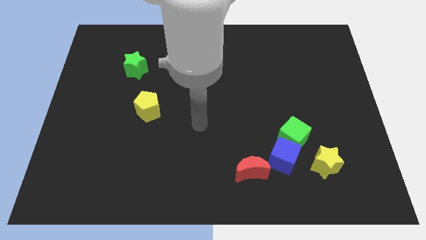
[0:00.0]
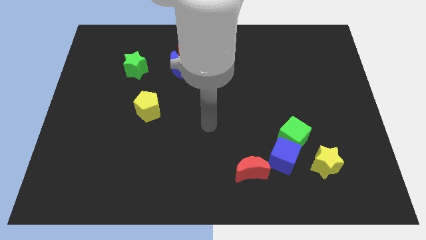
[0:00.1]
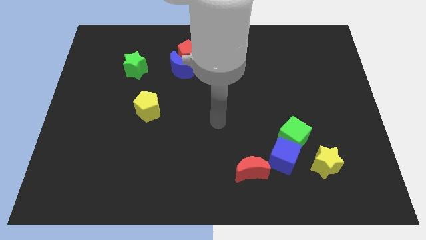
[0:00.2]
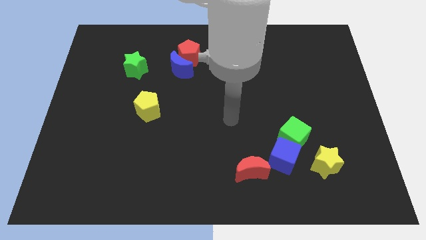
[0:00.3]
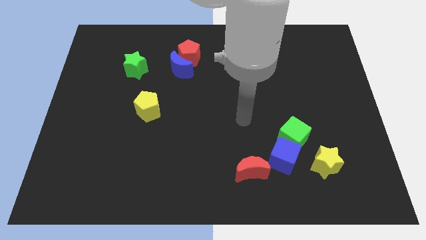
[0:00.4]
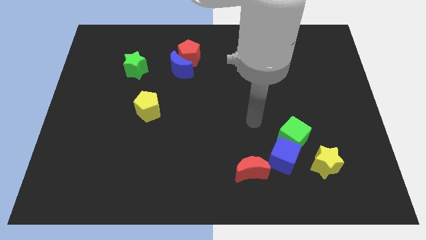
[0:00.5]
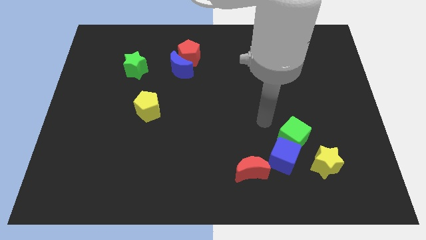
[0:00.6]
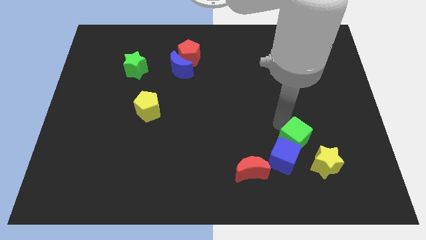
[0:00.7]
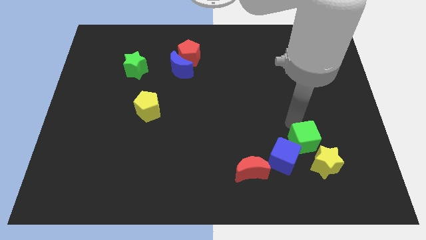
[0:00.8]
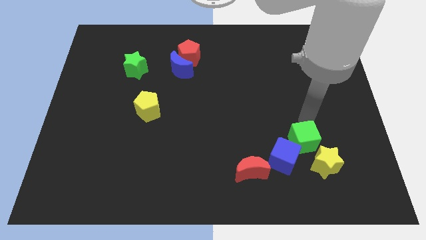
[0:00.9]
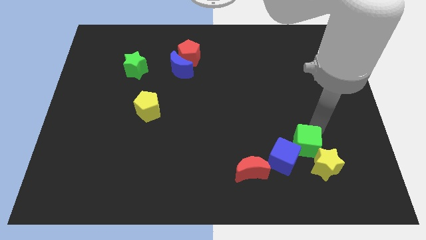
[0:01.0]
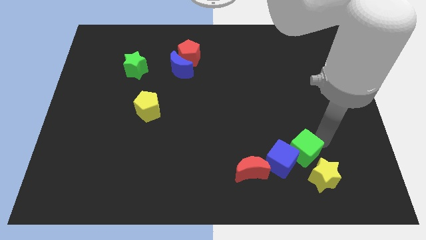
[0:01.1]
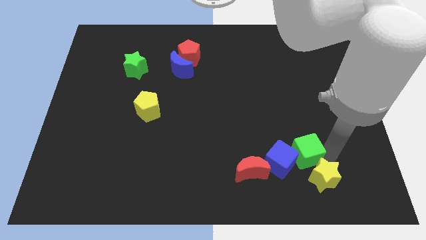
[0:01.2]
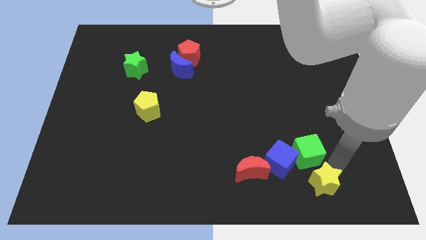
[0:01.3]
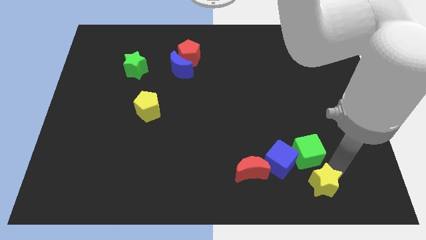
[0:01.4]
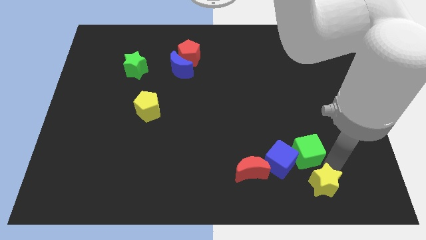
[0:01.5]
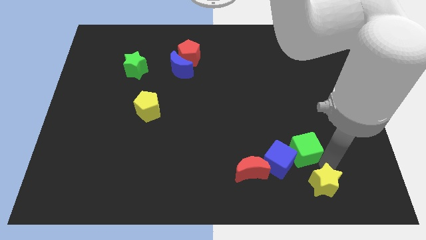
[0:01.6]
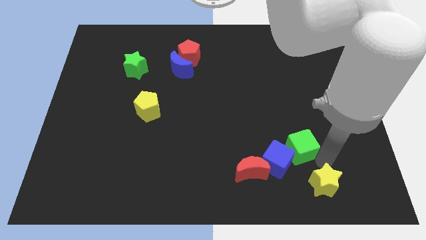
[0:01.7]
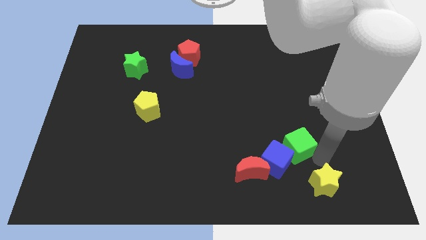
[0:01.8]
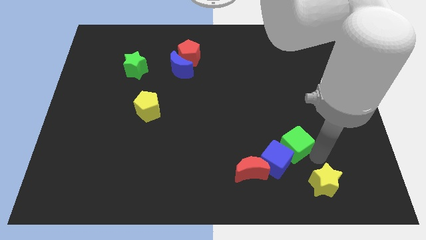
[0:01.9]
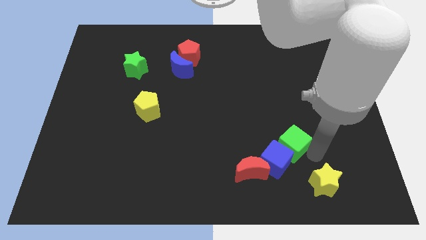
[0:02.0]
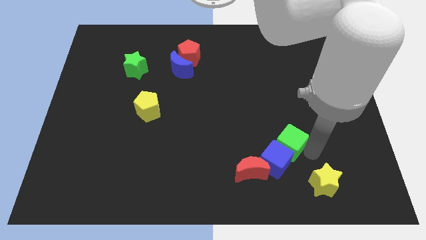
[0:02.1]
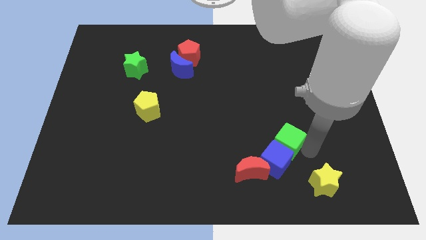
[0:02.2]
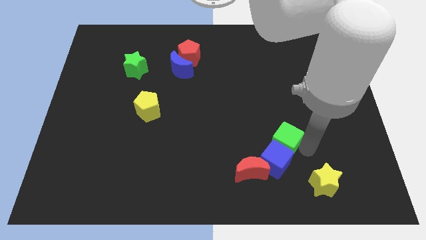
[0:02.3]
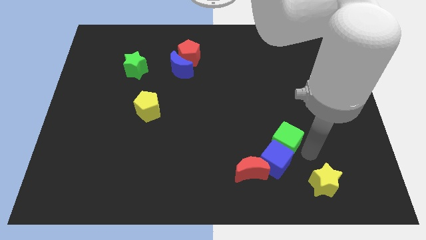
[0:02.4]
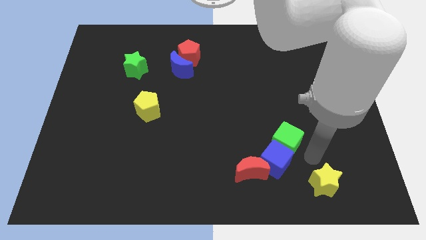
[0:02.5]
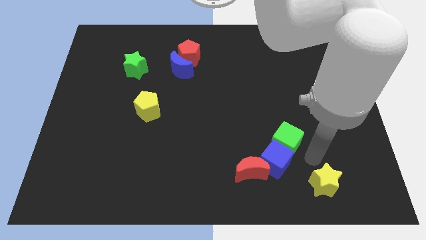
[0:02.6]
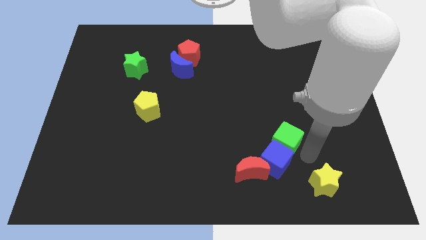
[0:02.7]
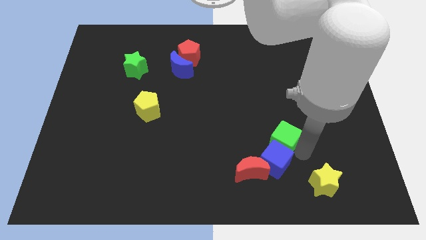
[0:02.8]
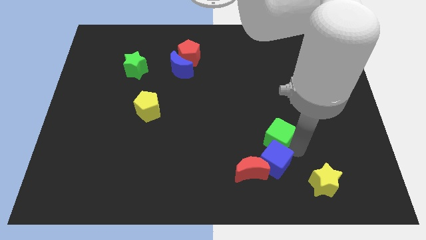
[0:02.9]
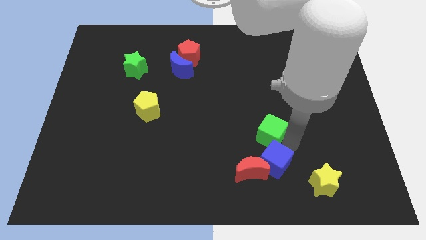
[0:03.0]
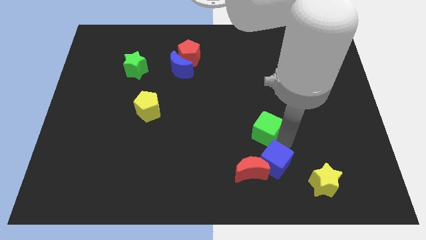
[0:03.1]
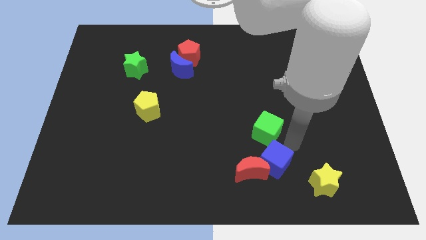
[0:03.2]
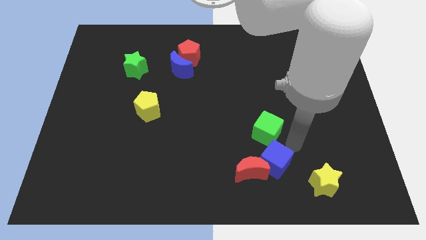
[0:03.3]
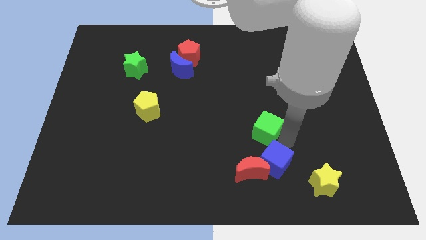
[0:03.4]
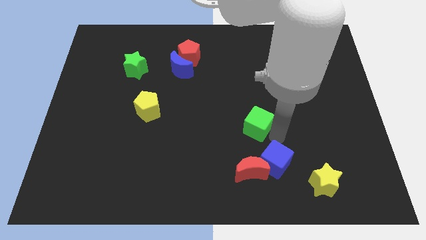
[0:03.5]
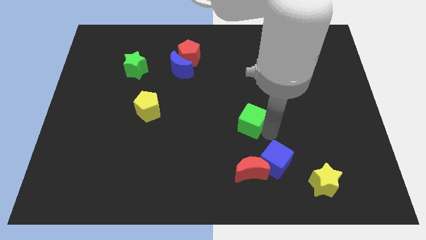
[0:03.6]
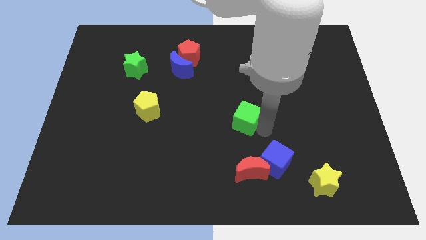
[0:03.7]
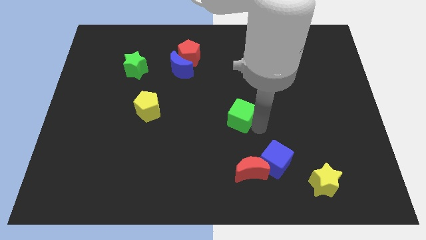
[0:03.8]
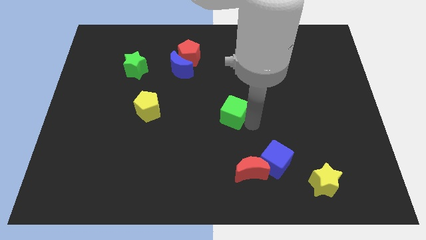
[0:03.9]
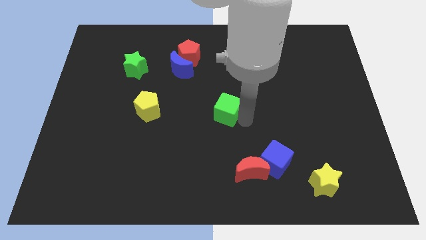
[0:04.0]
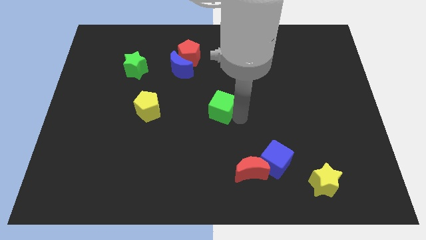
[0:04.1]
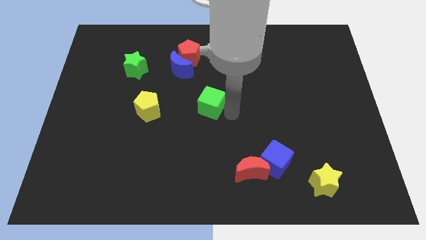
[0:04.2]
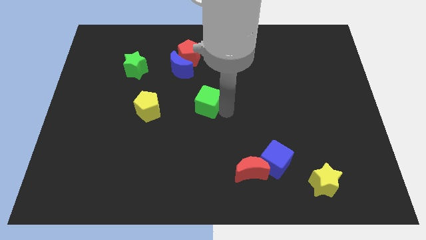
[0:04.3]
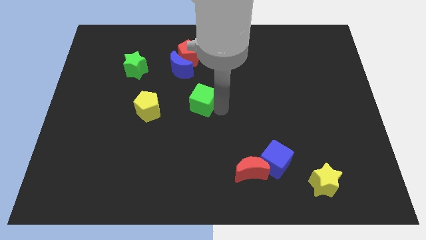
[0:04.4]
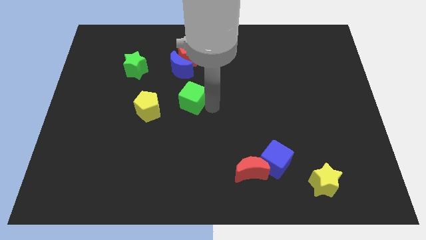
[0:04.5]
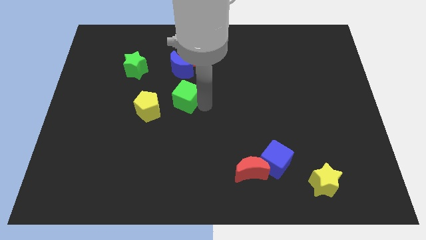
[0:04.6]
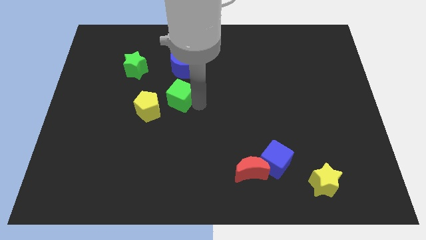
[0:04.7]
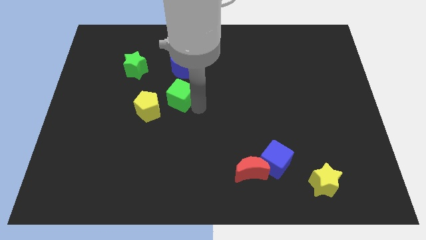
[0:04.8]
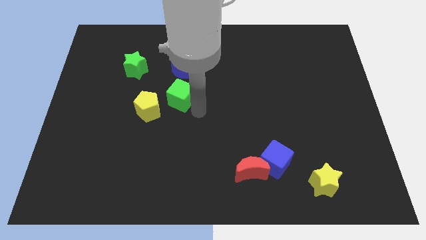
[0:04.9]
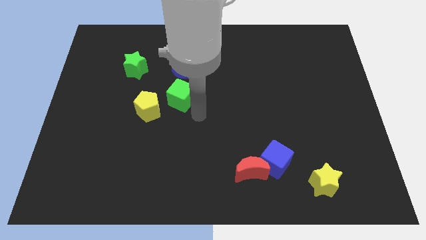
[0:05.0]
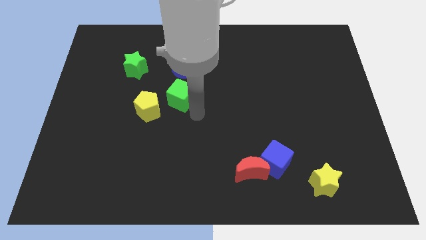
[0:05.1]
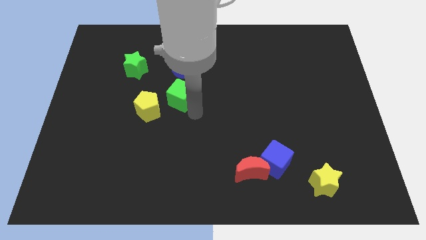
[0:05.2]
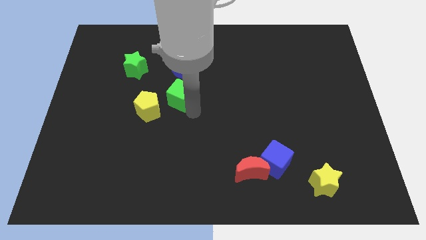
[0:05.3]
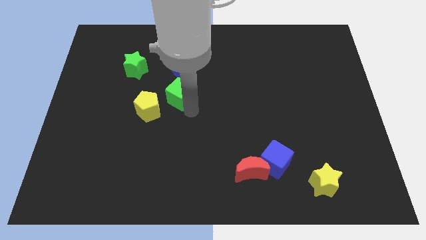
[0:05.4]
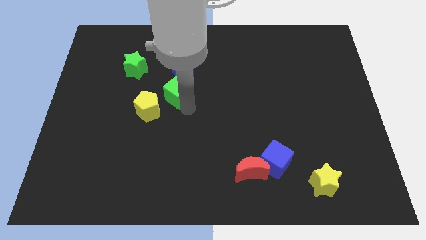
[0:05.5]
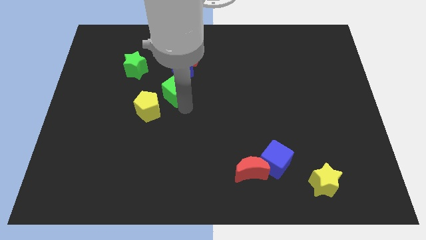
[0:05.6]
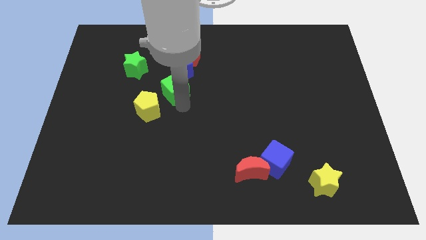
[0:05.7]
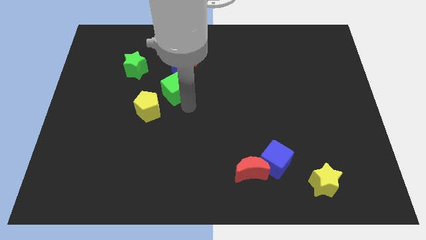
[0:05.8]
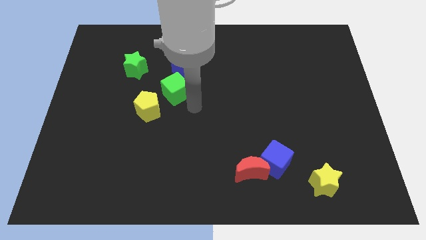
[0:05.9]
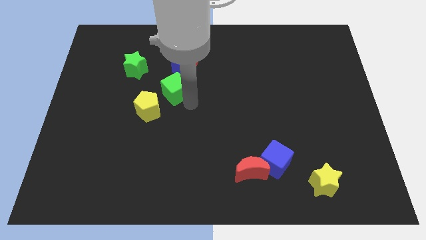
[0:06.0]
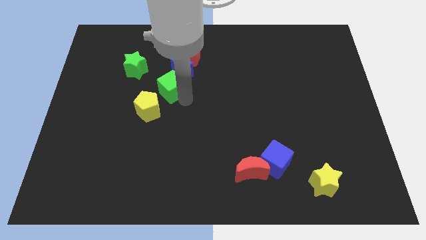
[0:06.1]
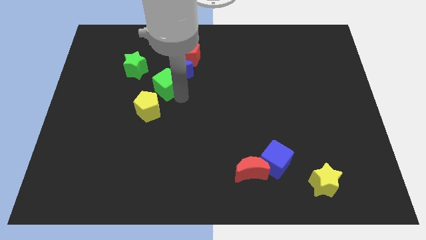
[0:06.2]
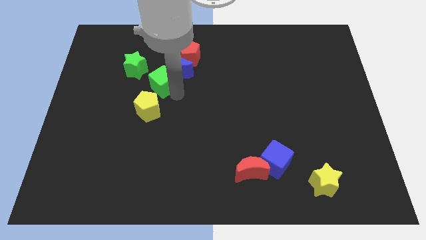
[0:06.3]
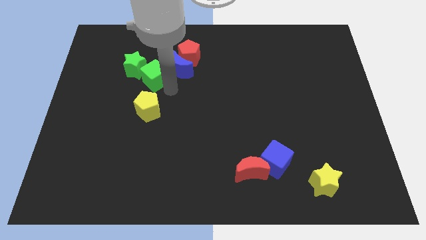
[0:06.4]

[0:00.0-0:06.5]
move the green cube to the green star
